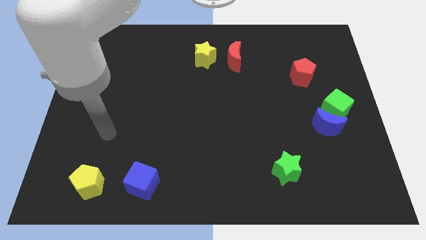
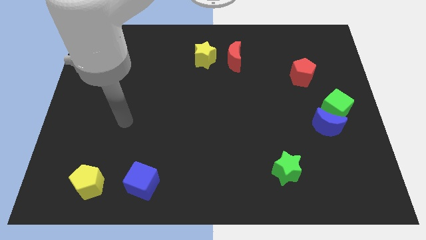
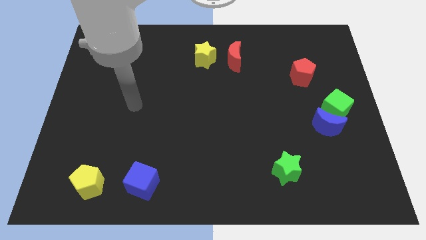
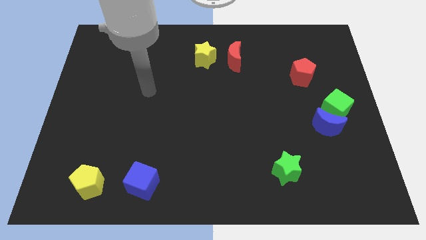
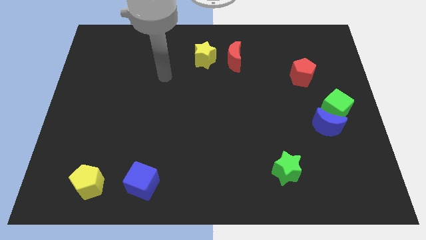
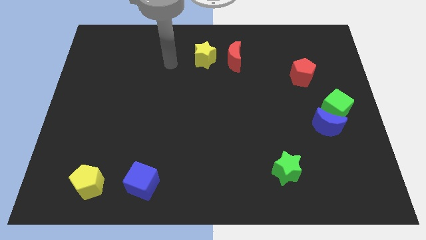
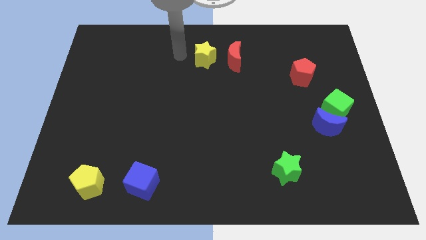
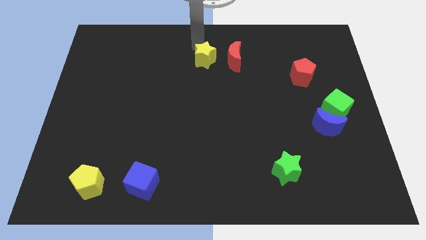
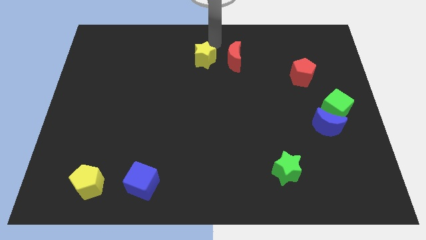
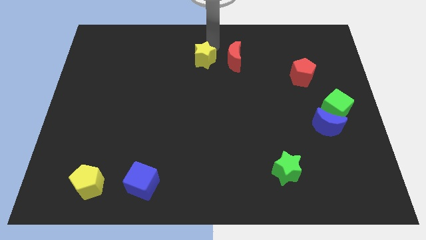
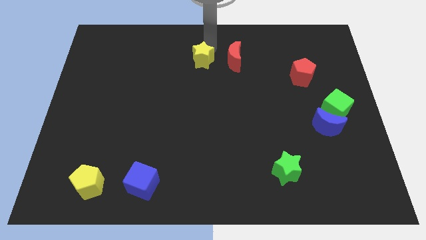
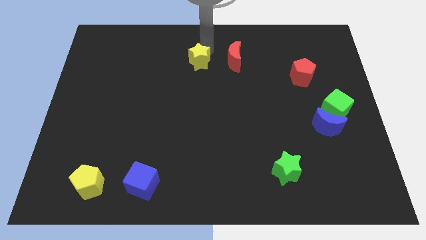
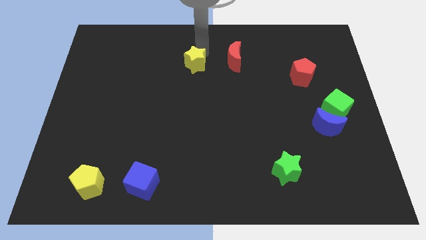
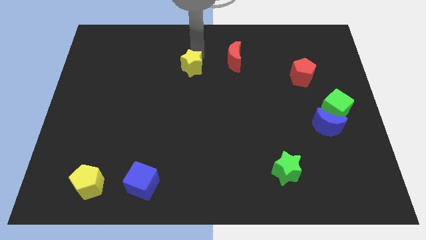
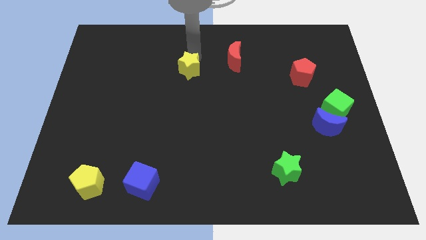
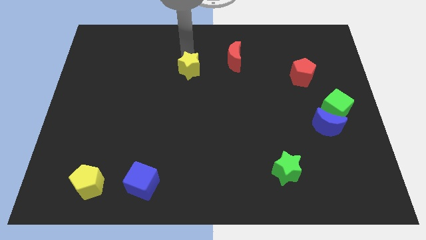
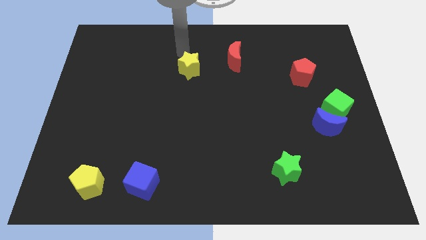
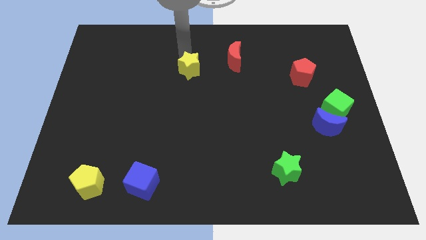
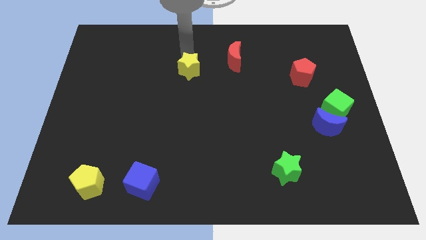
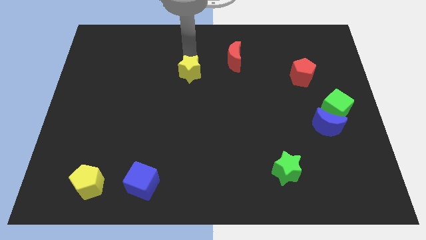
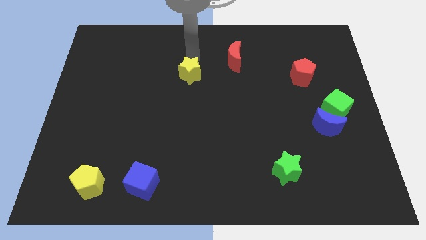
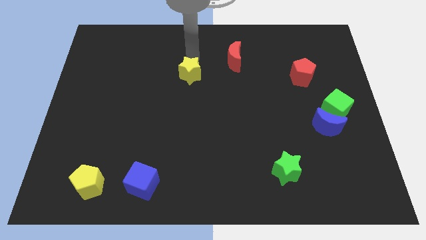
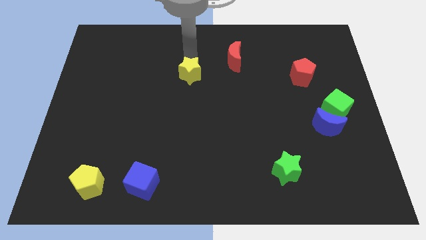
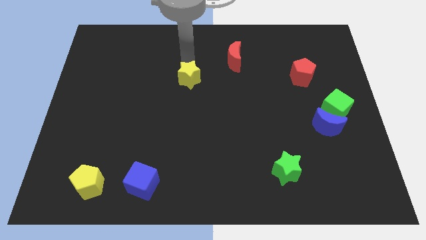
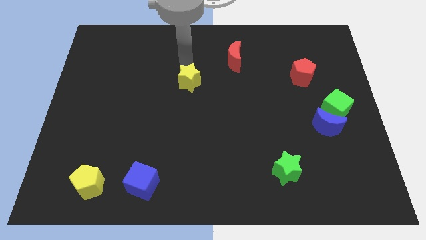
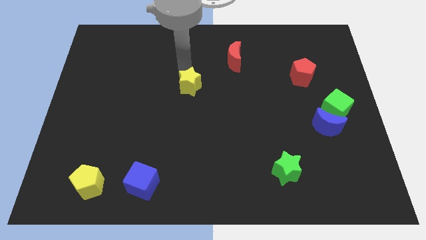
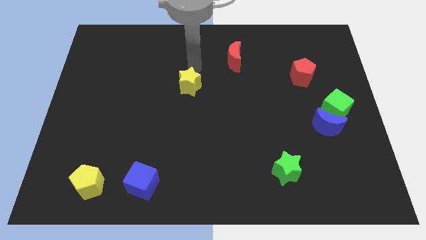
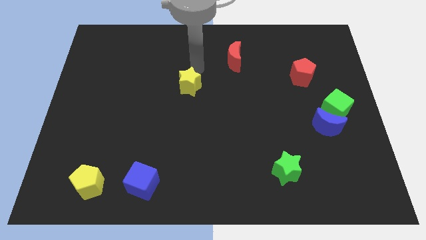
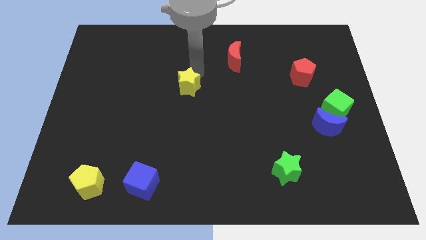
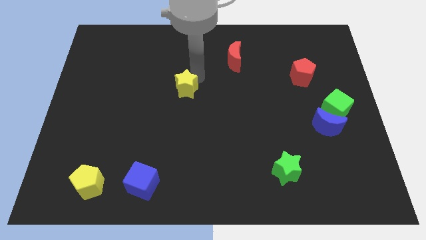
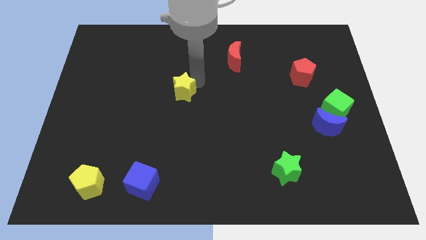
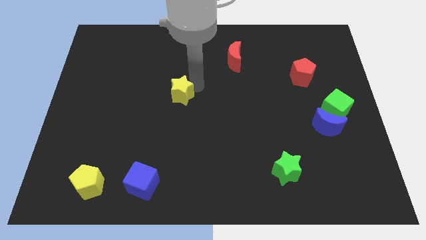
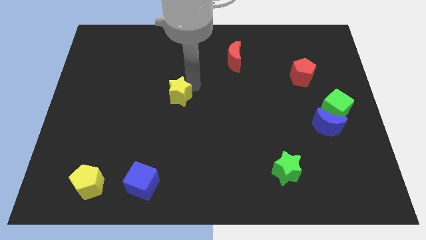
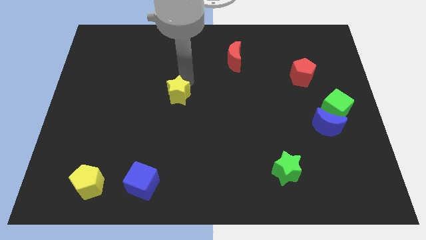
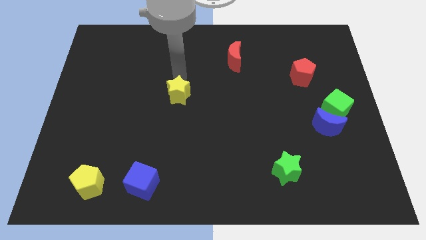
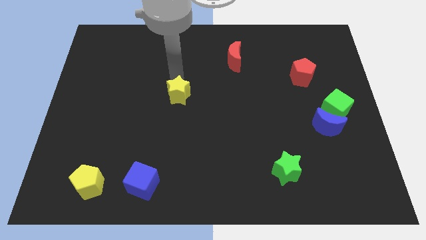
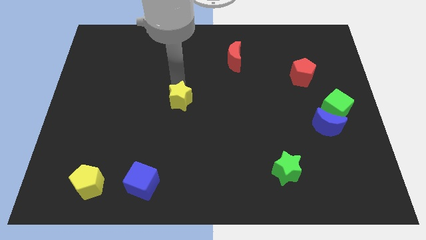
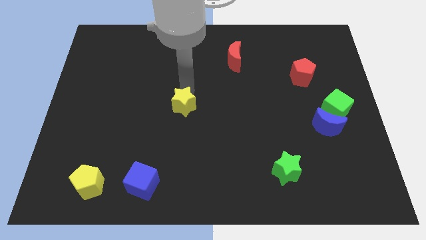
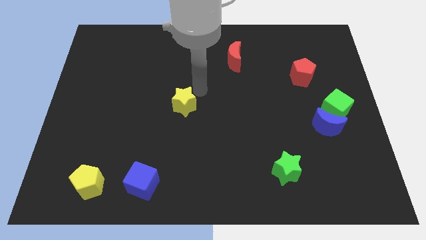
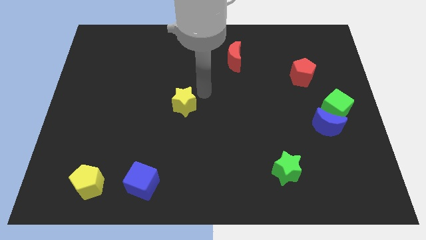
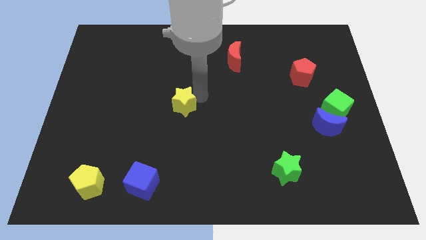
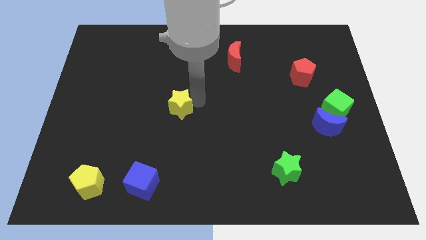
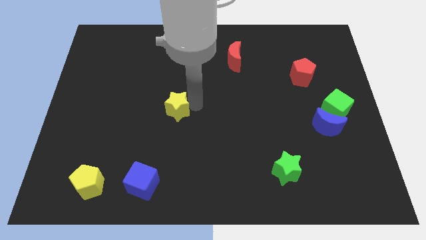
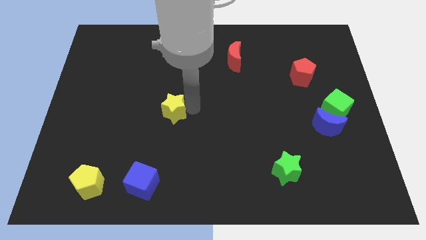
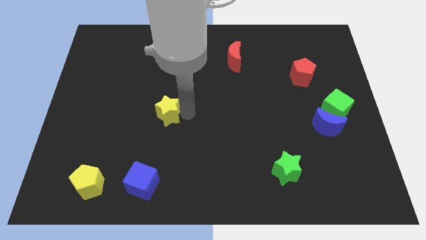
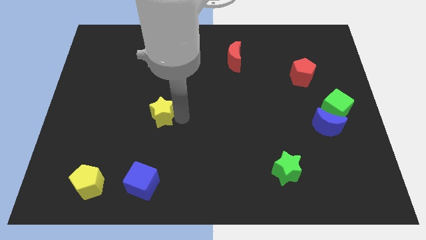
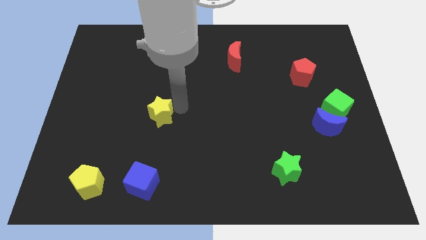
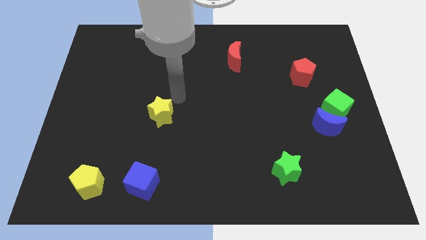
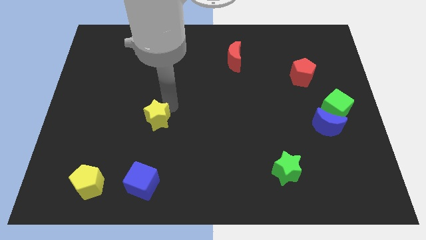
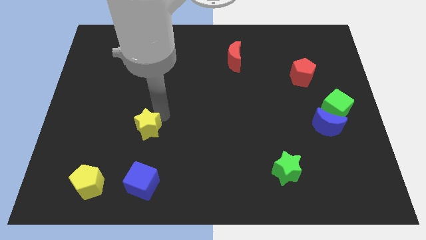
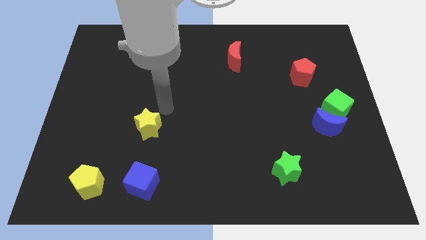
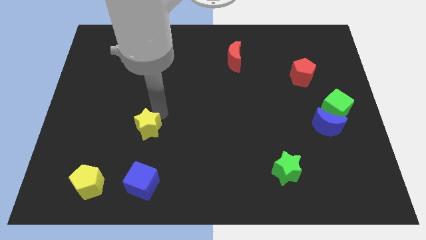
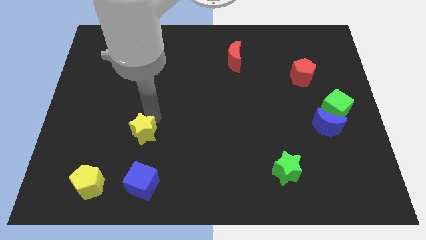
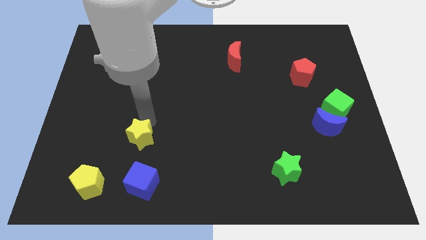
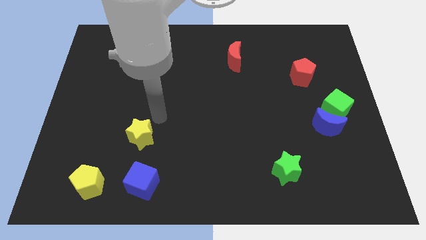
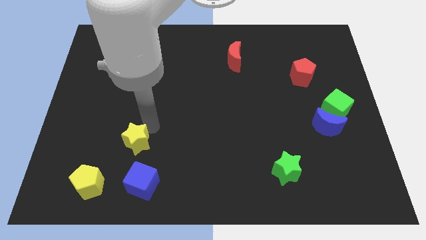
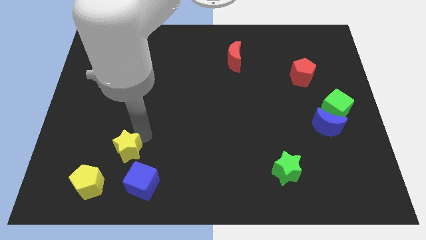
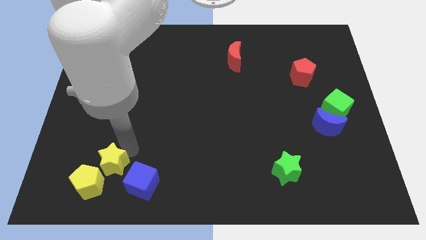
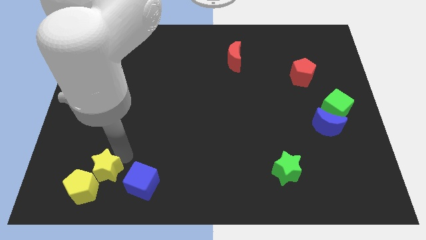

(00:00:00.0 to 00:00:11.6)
push the yellow star close to the yellow pentagon

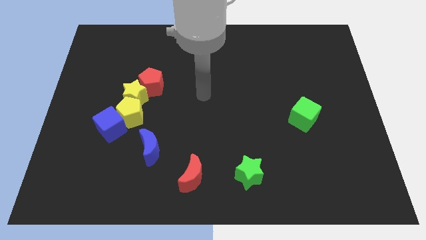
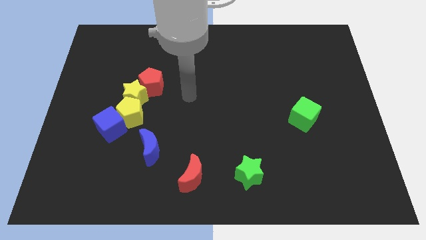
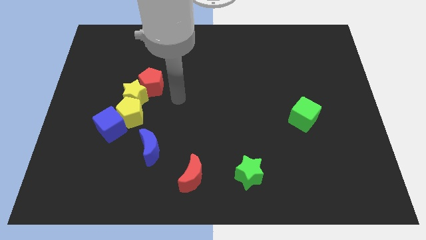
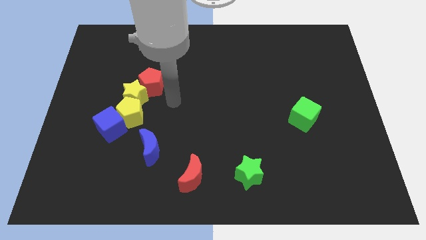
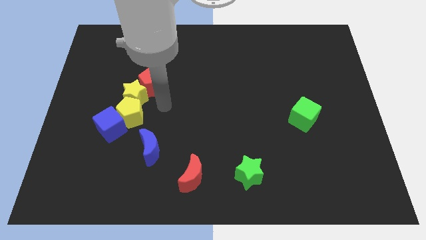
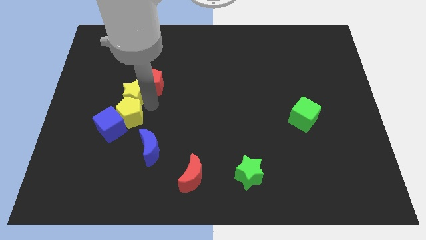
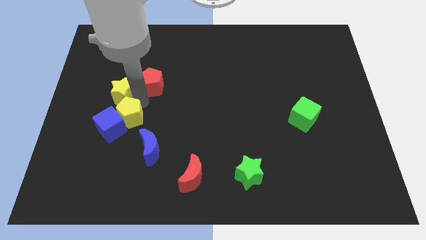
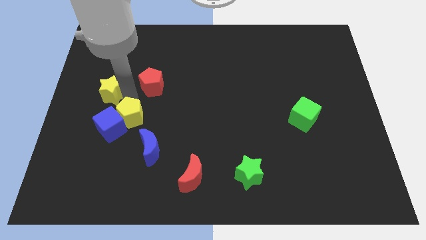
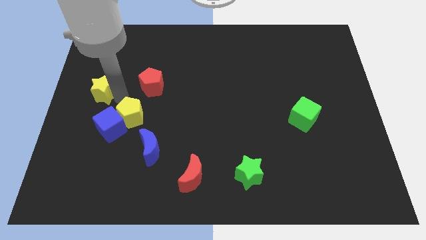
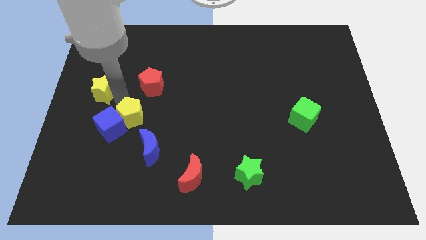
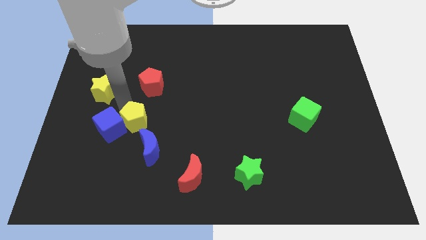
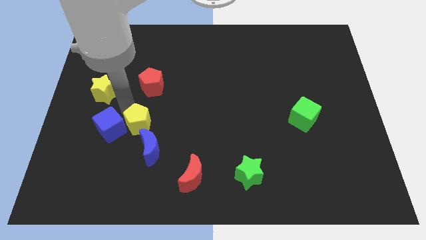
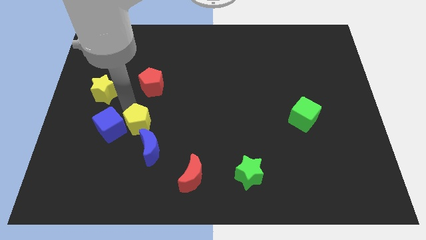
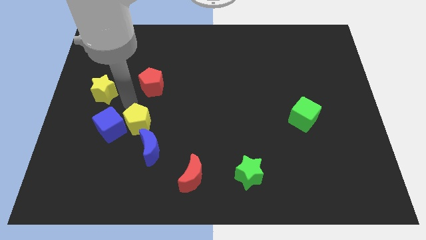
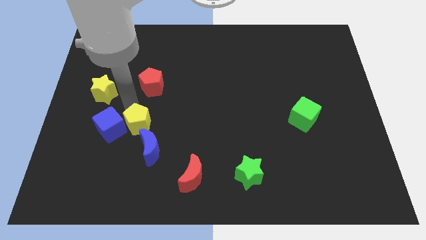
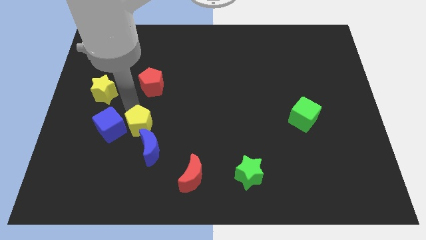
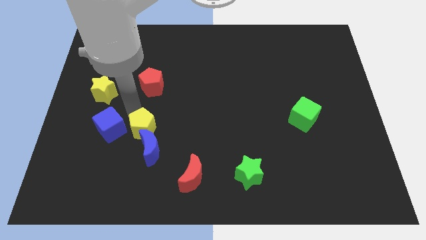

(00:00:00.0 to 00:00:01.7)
put the yellow pentagon next to the blue moon
